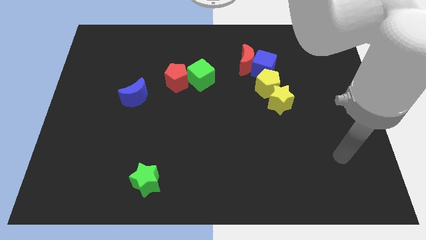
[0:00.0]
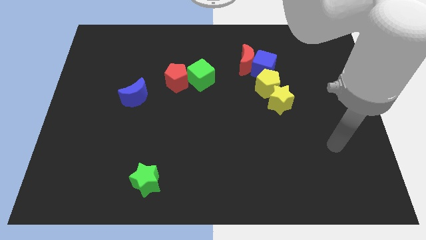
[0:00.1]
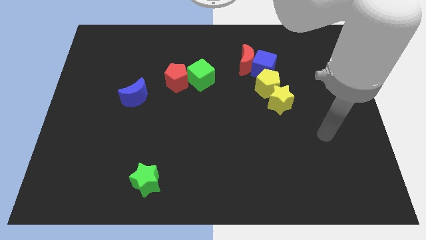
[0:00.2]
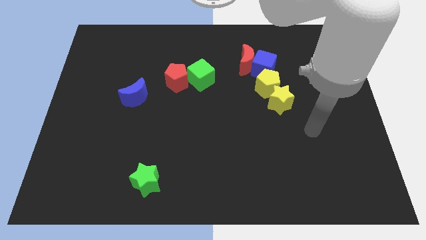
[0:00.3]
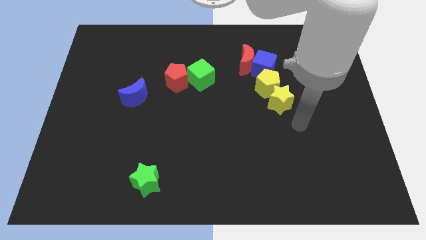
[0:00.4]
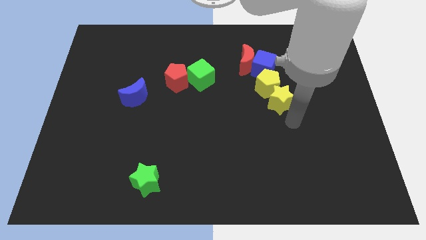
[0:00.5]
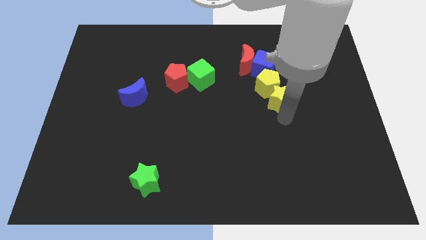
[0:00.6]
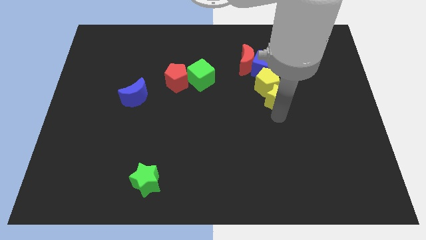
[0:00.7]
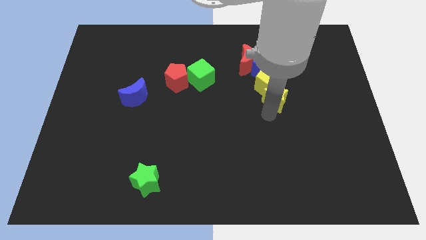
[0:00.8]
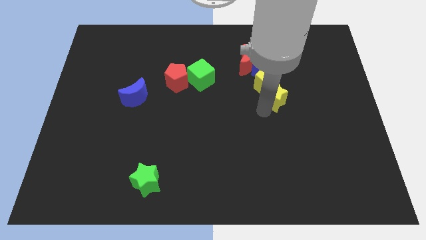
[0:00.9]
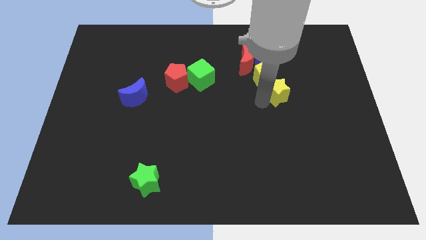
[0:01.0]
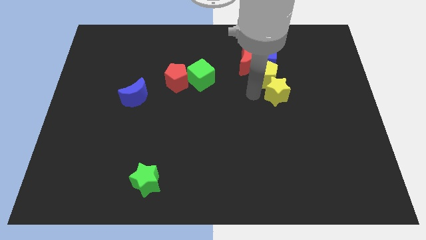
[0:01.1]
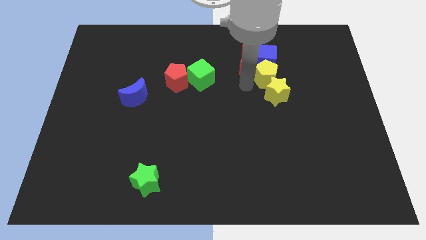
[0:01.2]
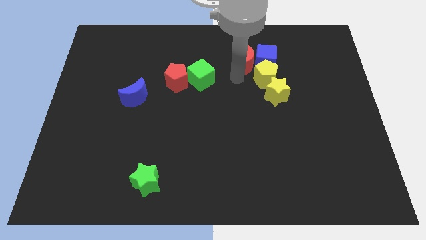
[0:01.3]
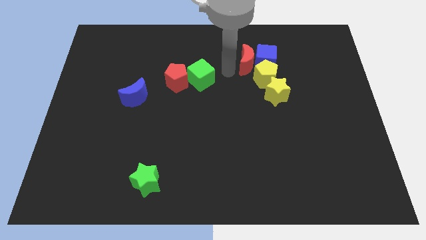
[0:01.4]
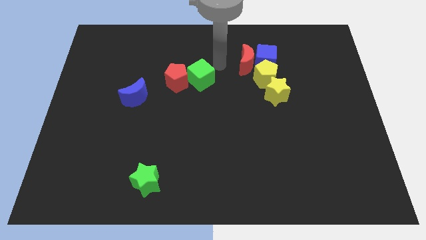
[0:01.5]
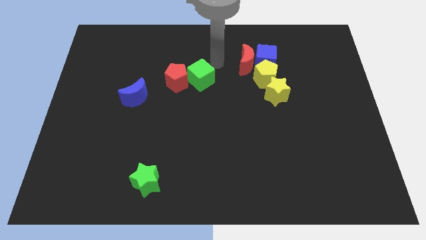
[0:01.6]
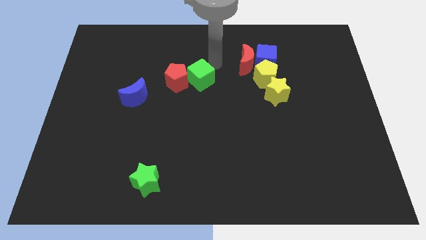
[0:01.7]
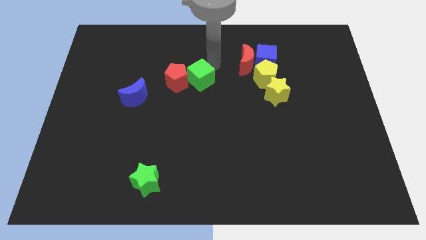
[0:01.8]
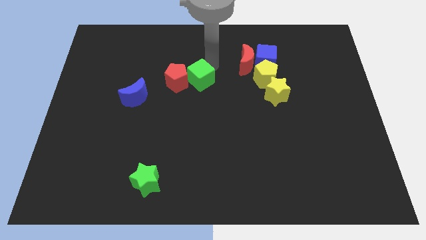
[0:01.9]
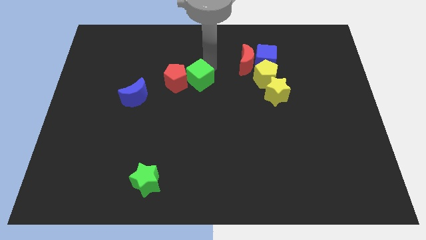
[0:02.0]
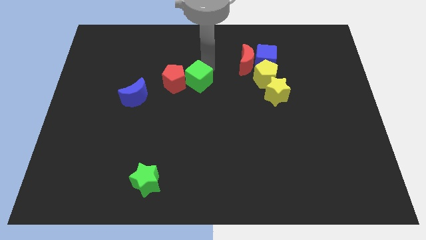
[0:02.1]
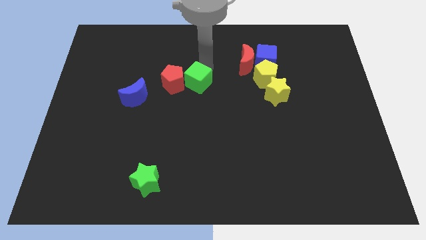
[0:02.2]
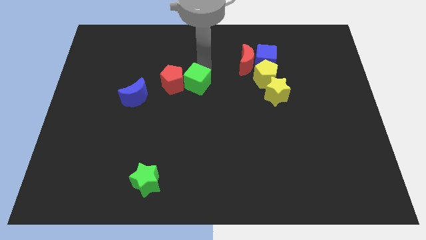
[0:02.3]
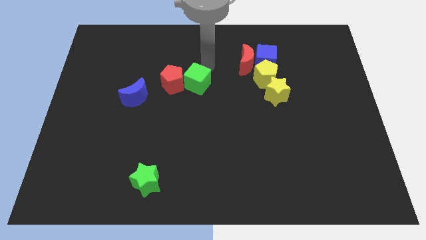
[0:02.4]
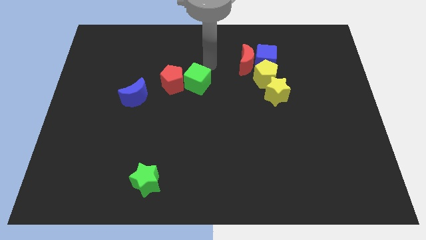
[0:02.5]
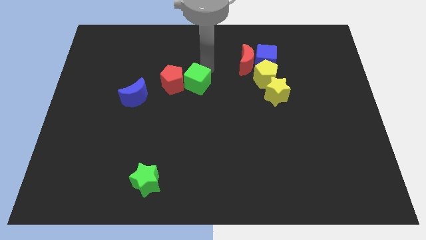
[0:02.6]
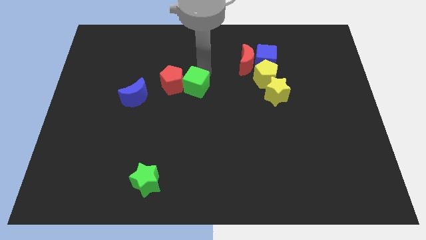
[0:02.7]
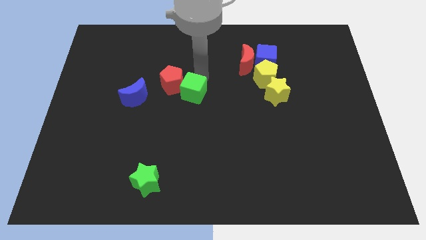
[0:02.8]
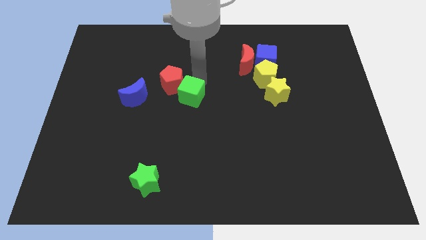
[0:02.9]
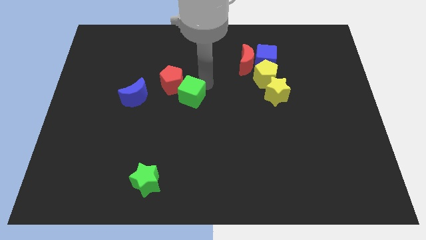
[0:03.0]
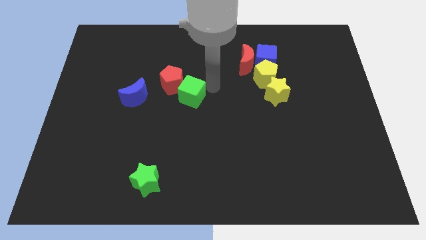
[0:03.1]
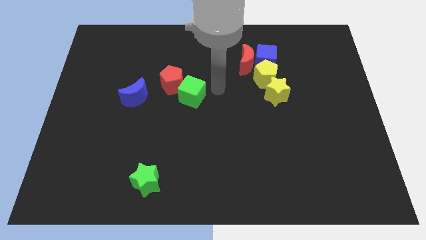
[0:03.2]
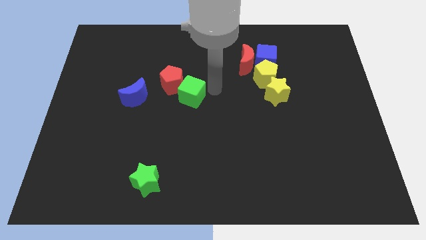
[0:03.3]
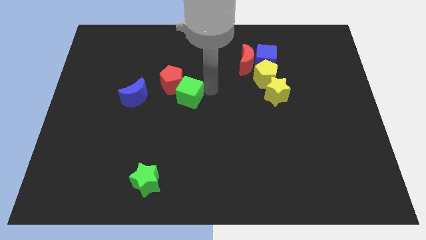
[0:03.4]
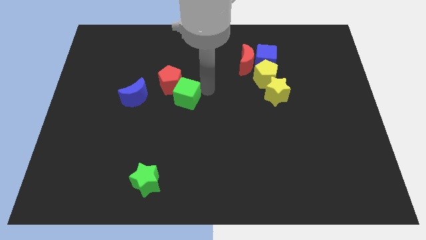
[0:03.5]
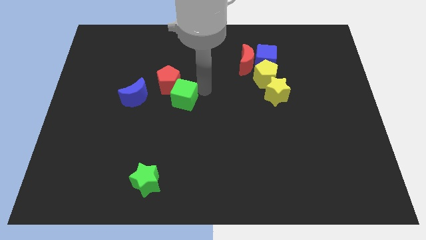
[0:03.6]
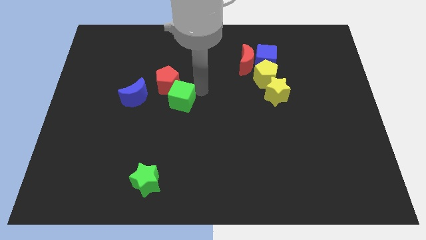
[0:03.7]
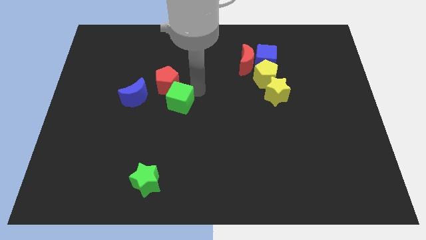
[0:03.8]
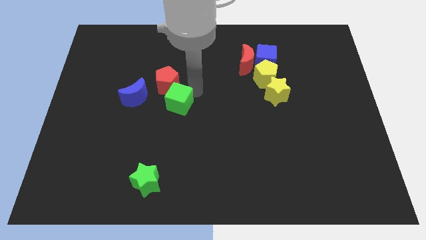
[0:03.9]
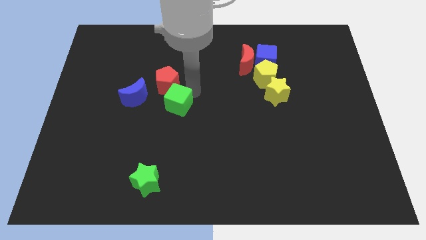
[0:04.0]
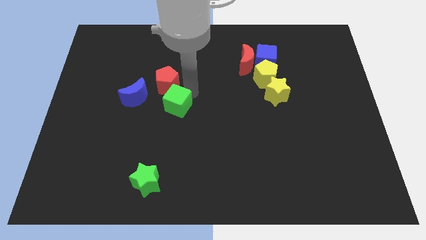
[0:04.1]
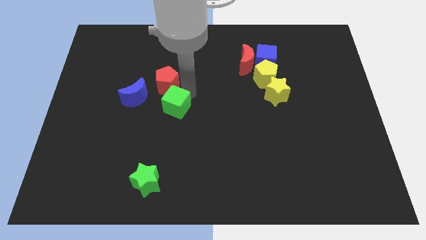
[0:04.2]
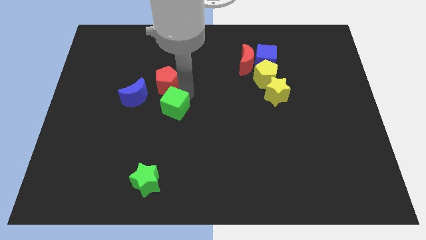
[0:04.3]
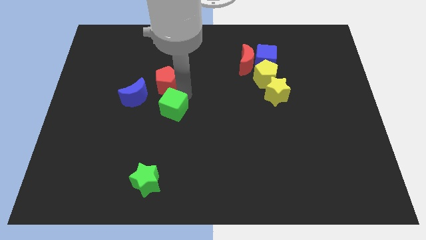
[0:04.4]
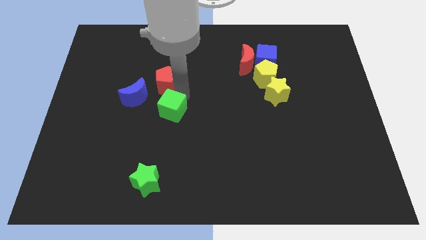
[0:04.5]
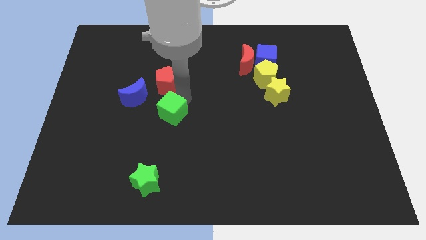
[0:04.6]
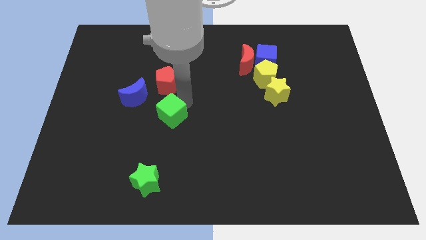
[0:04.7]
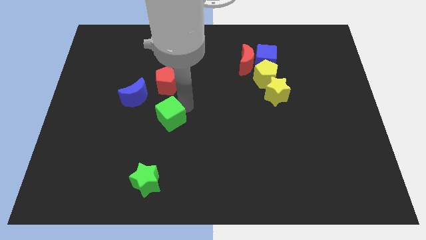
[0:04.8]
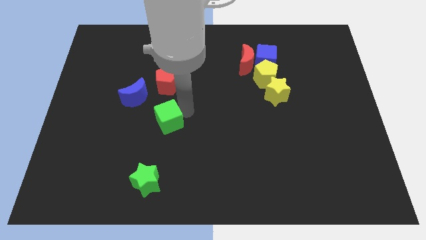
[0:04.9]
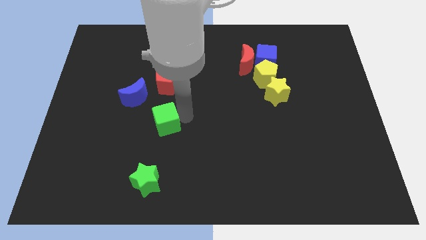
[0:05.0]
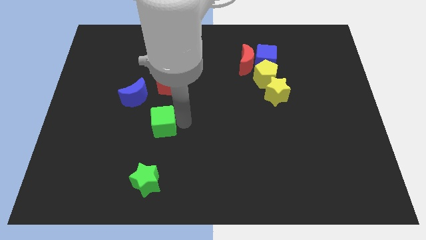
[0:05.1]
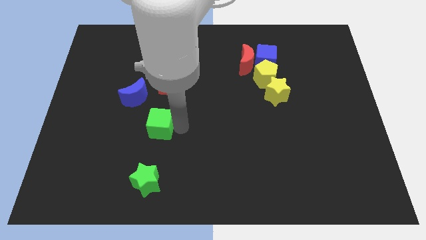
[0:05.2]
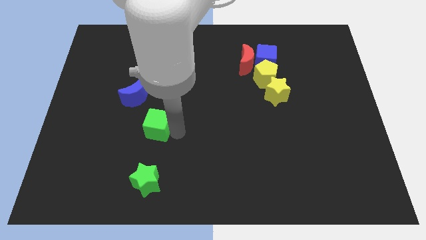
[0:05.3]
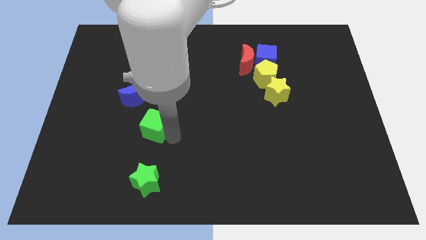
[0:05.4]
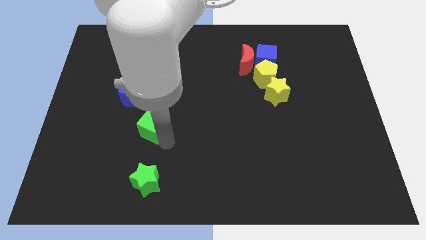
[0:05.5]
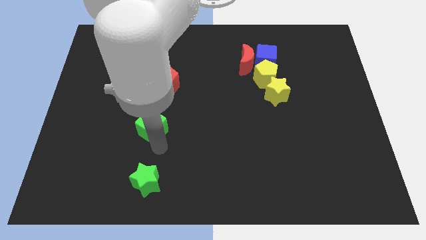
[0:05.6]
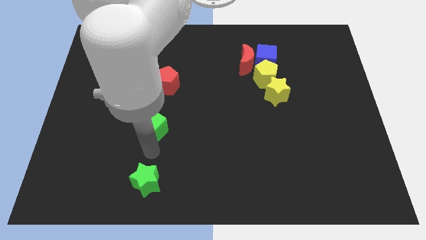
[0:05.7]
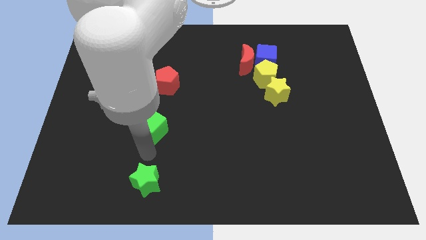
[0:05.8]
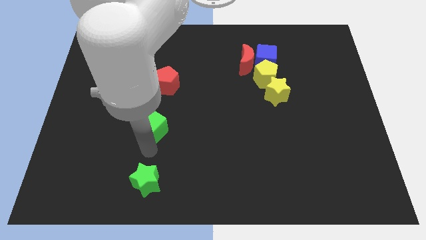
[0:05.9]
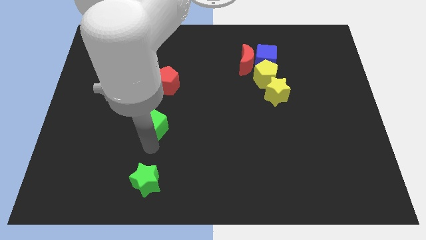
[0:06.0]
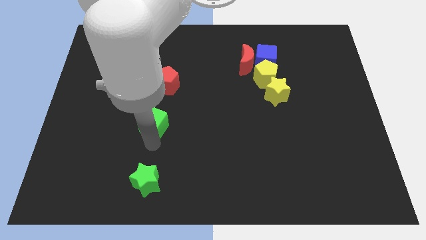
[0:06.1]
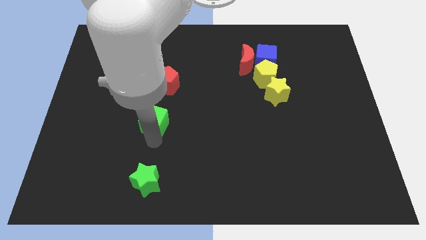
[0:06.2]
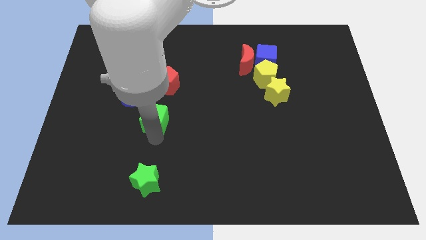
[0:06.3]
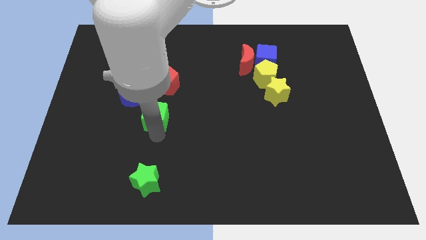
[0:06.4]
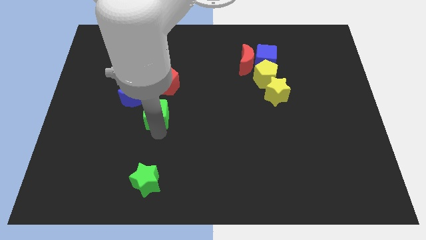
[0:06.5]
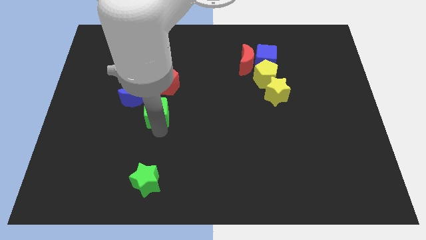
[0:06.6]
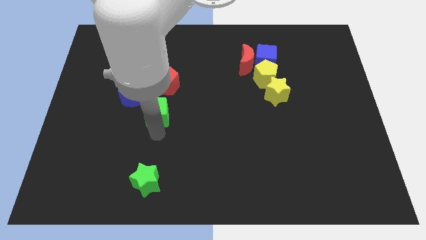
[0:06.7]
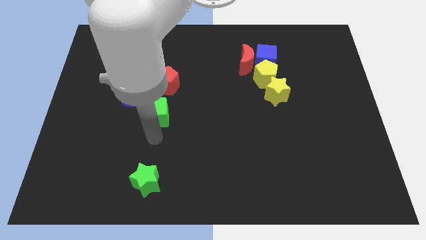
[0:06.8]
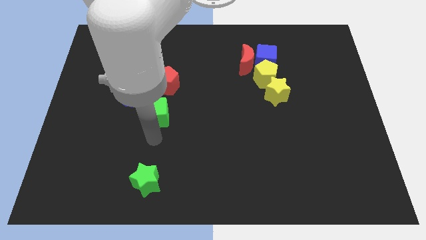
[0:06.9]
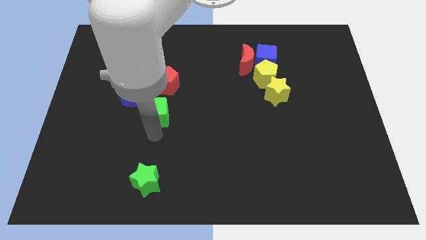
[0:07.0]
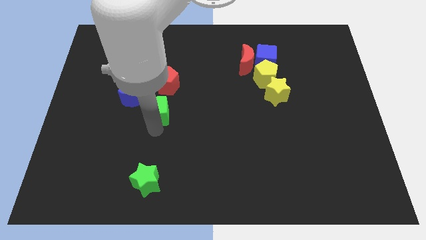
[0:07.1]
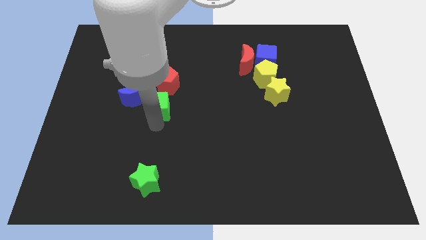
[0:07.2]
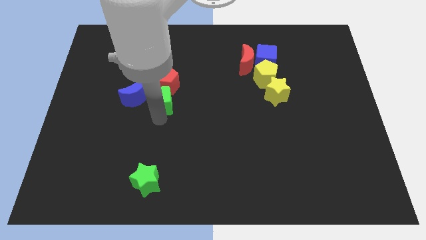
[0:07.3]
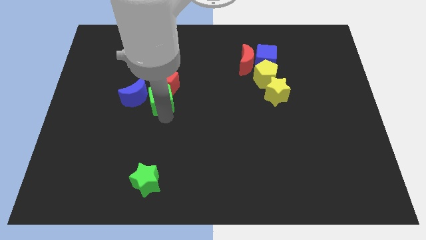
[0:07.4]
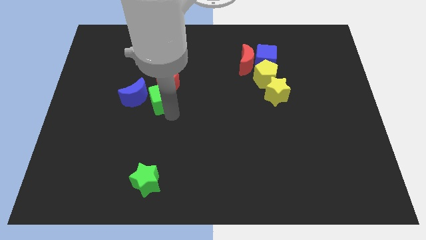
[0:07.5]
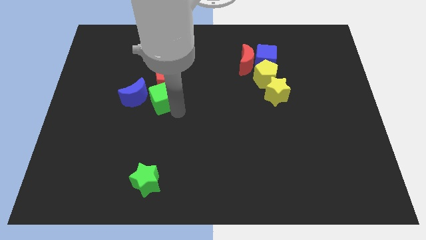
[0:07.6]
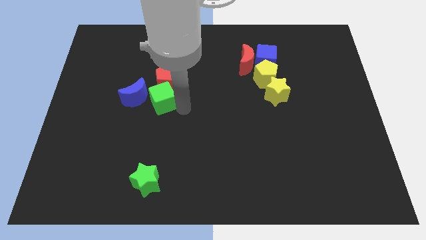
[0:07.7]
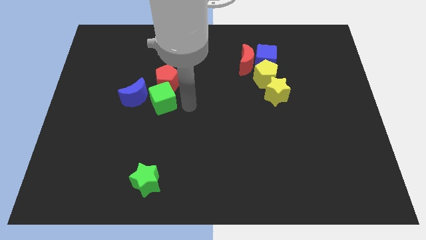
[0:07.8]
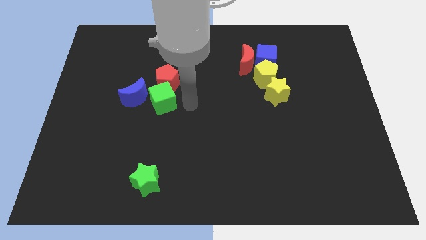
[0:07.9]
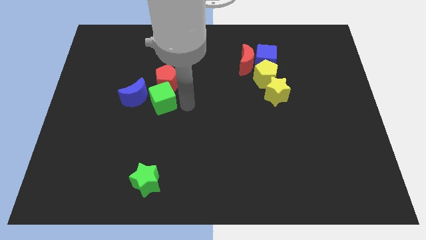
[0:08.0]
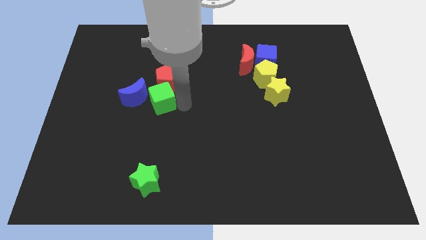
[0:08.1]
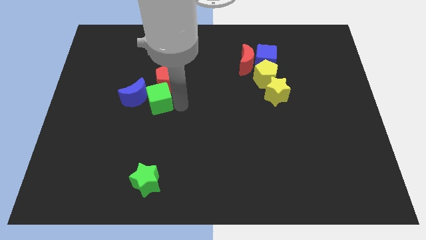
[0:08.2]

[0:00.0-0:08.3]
slide the green cube close to the blue moon
